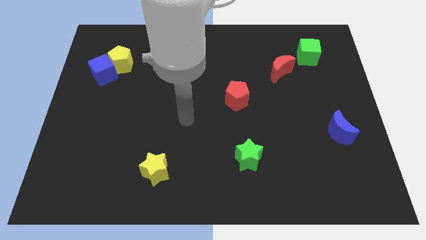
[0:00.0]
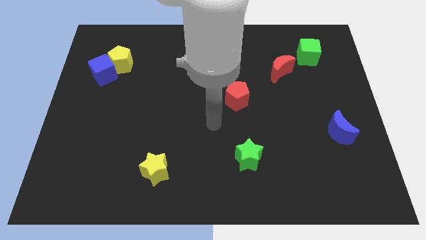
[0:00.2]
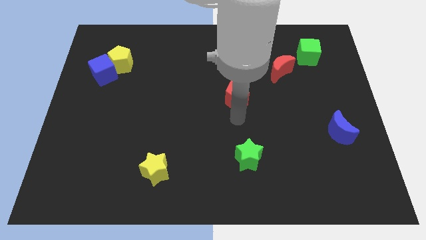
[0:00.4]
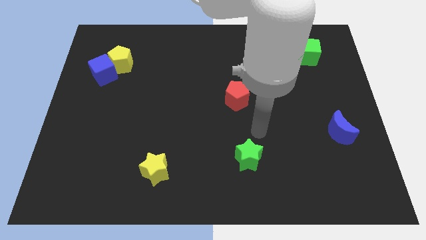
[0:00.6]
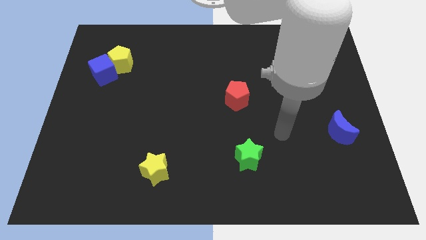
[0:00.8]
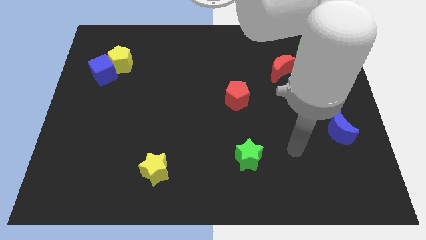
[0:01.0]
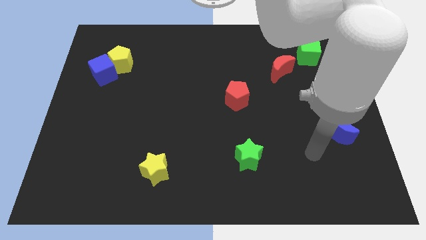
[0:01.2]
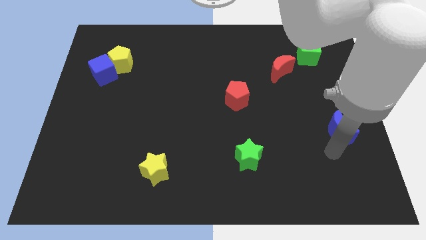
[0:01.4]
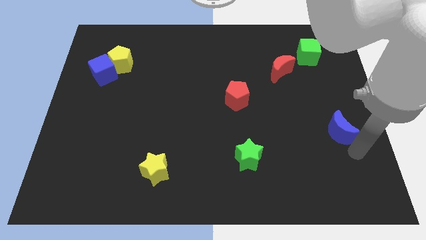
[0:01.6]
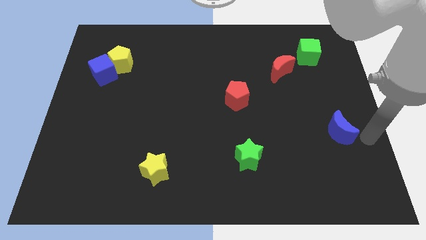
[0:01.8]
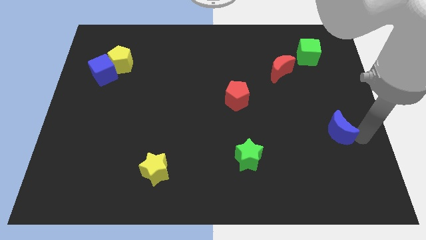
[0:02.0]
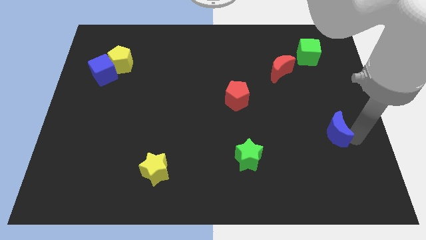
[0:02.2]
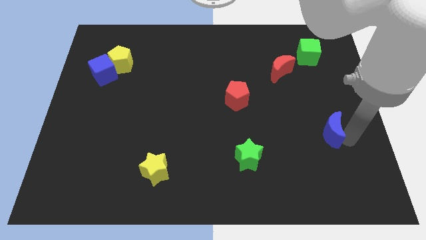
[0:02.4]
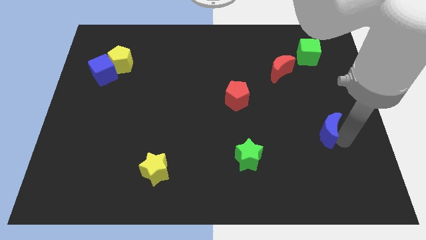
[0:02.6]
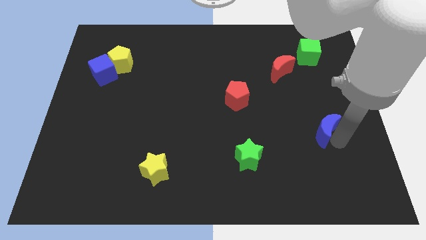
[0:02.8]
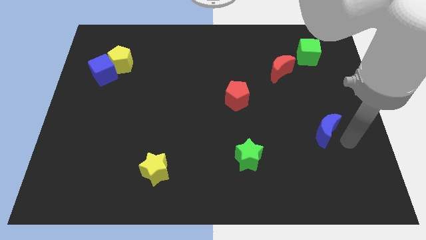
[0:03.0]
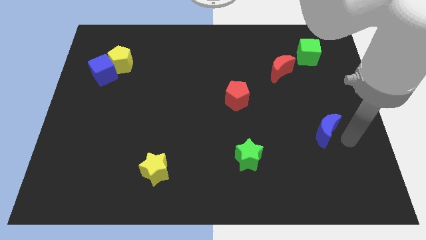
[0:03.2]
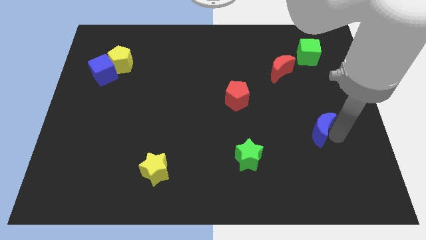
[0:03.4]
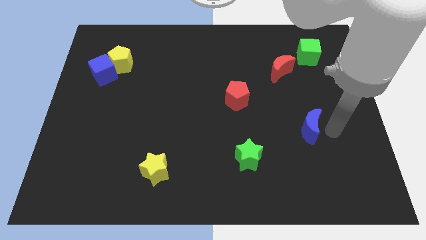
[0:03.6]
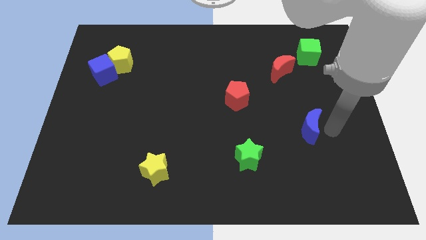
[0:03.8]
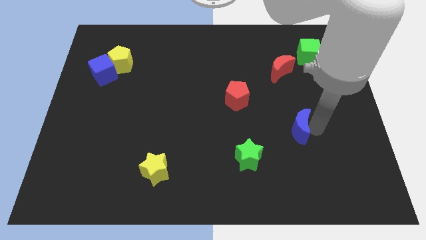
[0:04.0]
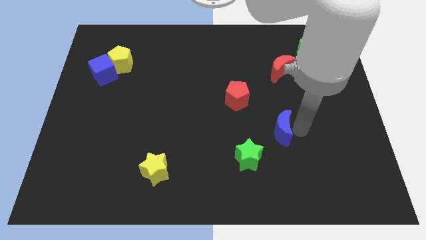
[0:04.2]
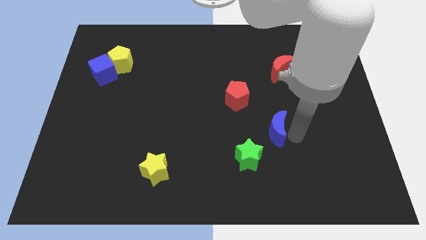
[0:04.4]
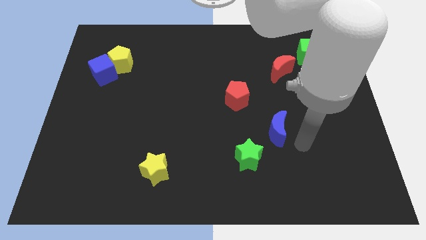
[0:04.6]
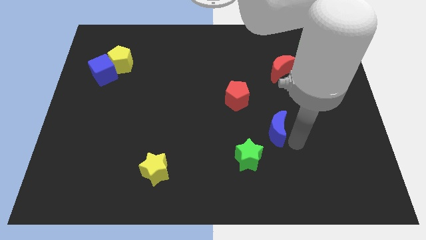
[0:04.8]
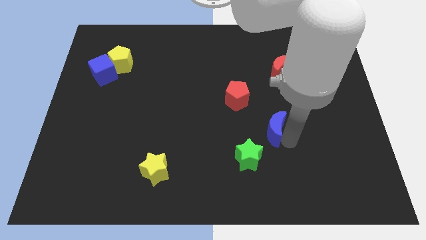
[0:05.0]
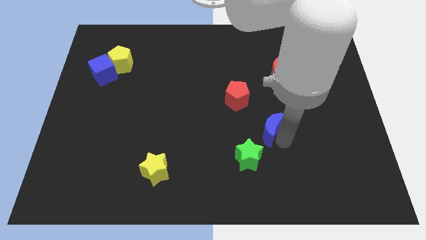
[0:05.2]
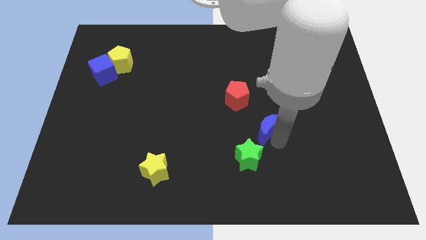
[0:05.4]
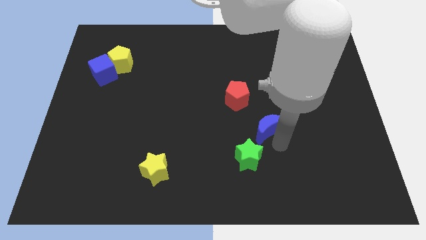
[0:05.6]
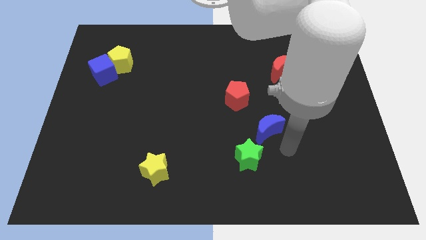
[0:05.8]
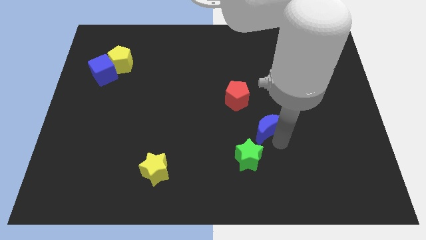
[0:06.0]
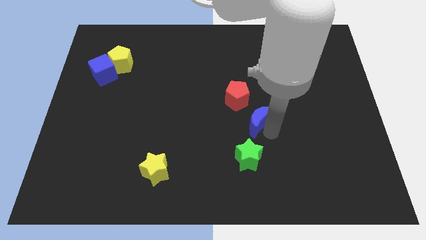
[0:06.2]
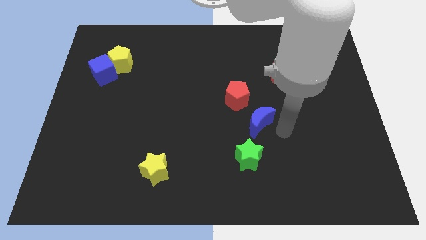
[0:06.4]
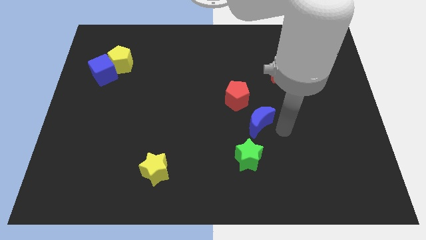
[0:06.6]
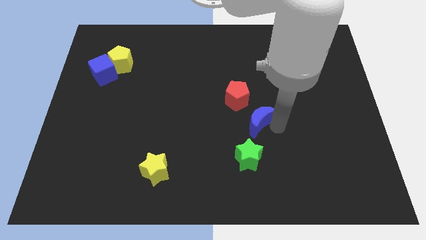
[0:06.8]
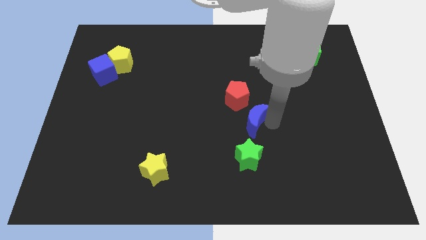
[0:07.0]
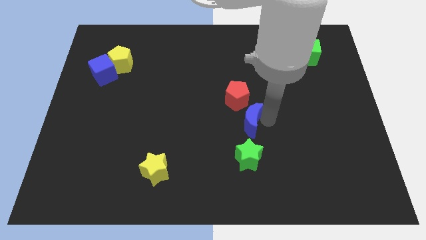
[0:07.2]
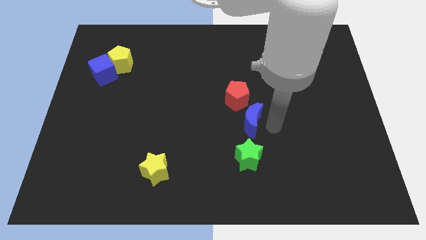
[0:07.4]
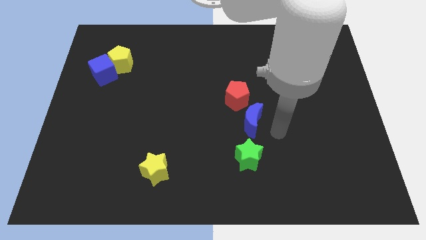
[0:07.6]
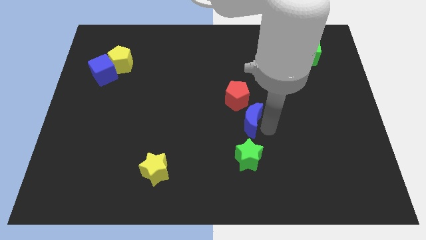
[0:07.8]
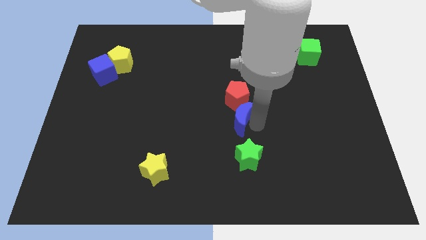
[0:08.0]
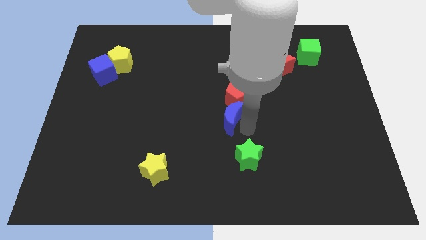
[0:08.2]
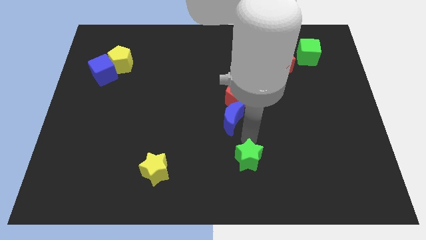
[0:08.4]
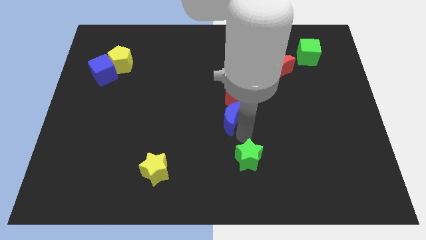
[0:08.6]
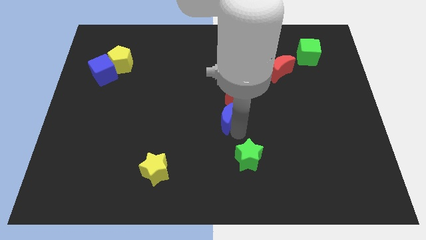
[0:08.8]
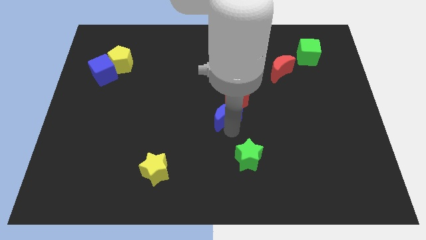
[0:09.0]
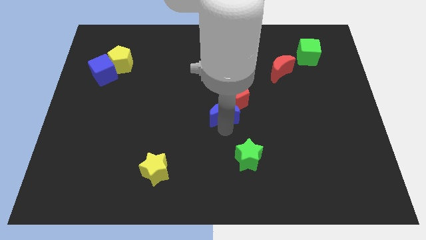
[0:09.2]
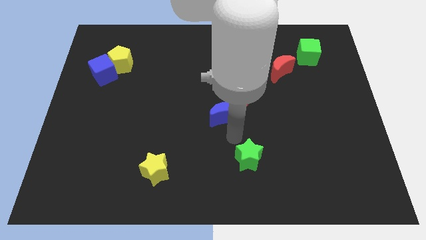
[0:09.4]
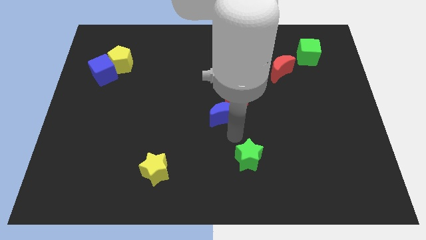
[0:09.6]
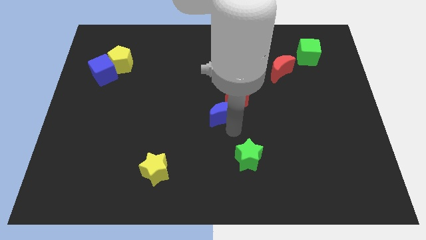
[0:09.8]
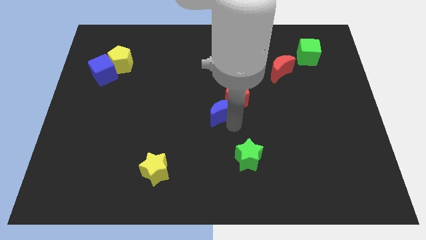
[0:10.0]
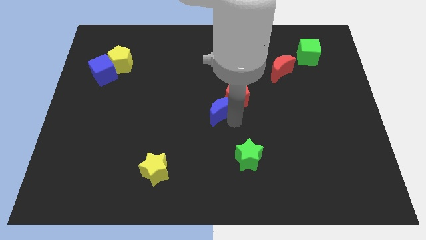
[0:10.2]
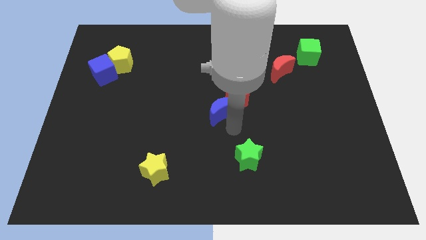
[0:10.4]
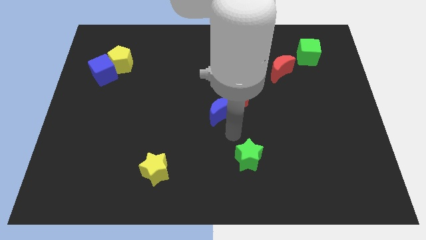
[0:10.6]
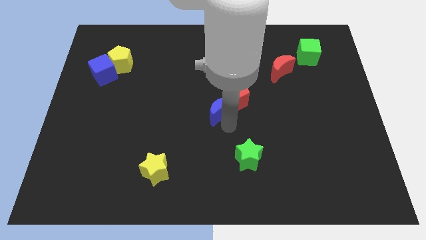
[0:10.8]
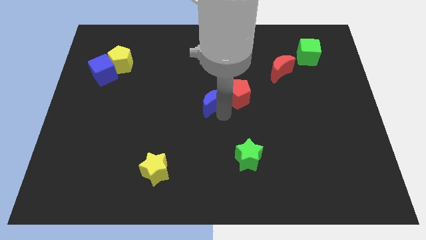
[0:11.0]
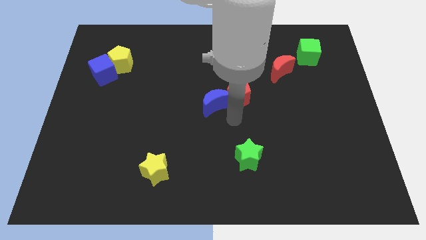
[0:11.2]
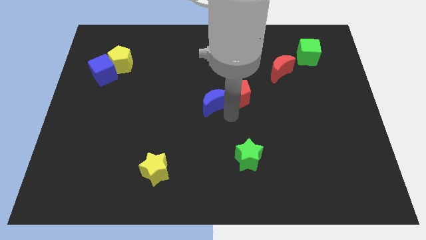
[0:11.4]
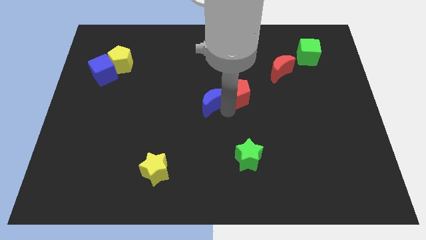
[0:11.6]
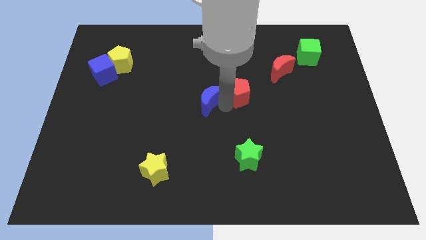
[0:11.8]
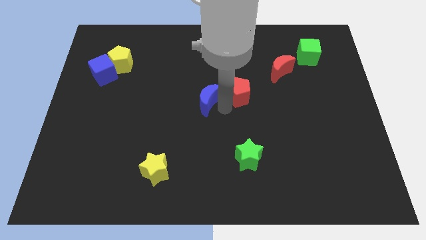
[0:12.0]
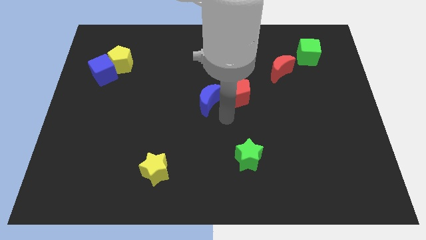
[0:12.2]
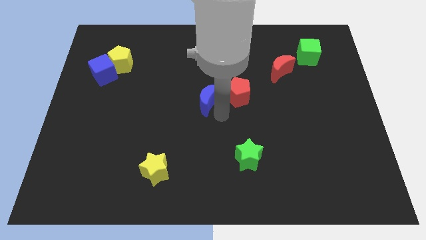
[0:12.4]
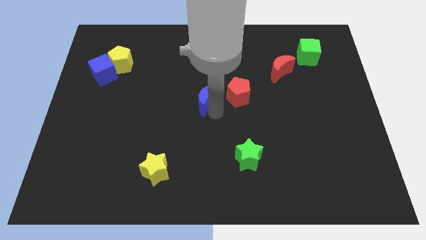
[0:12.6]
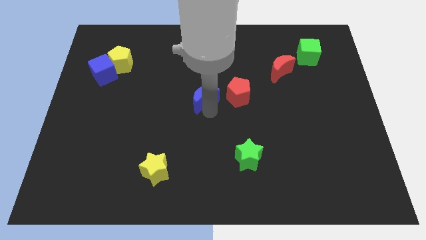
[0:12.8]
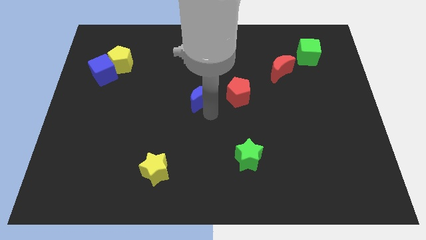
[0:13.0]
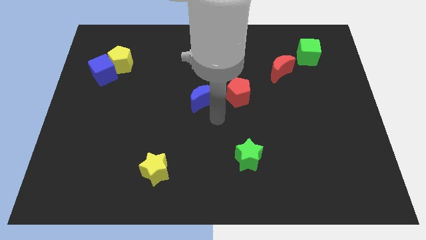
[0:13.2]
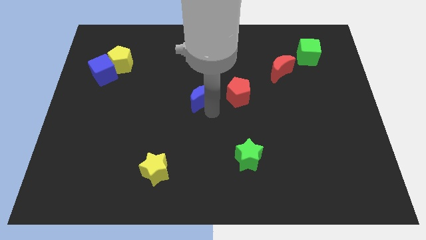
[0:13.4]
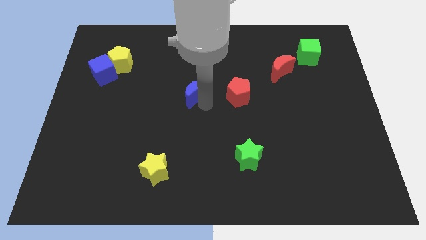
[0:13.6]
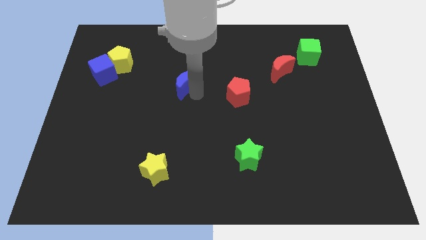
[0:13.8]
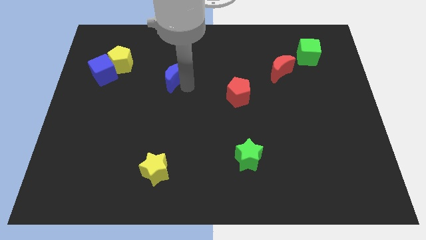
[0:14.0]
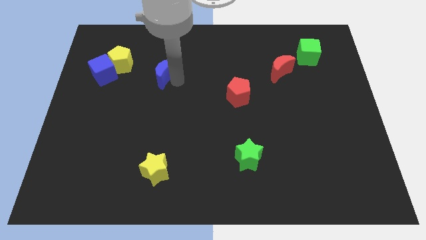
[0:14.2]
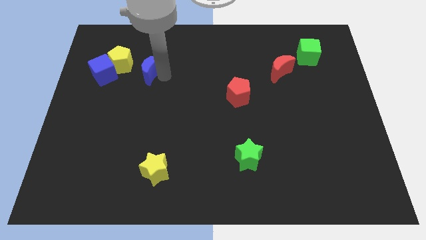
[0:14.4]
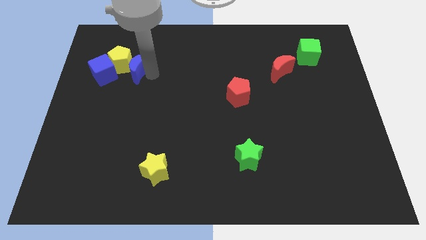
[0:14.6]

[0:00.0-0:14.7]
put the blue moon to the yellow pentagon
